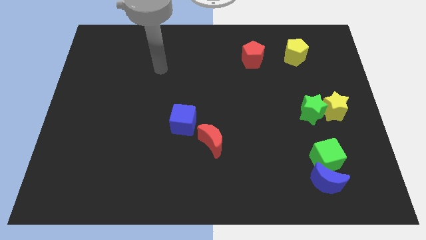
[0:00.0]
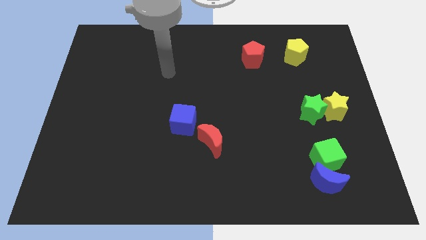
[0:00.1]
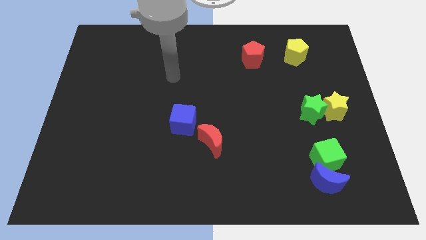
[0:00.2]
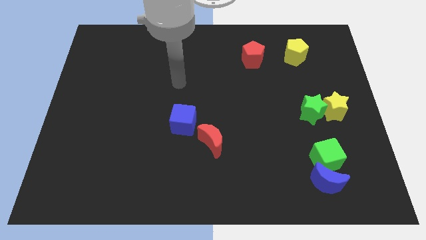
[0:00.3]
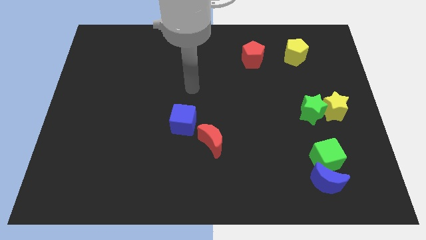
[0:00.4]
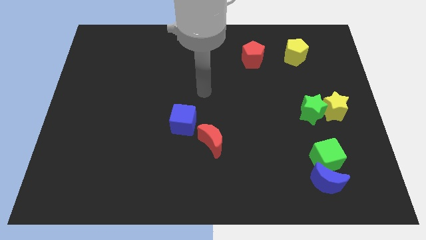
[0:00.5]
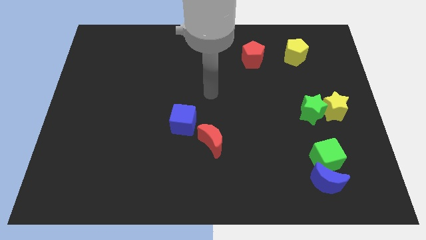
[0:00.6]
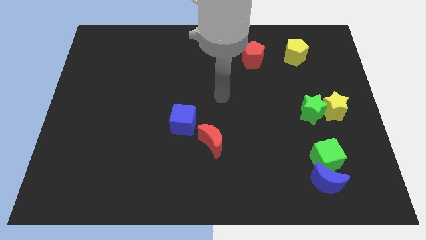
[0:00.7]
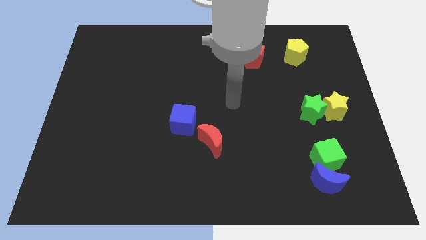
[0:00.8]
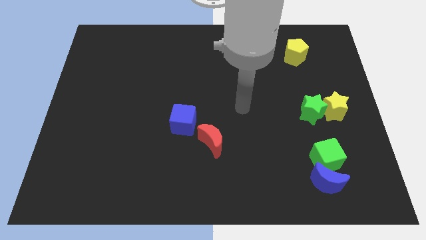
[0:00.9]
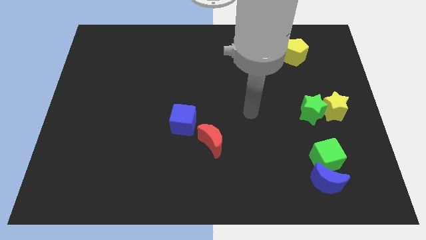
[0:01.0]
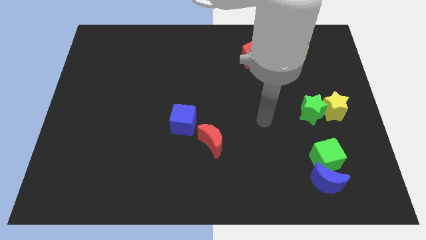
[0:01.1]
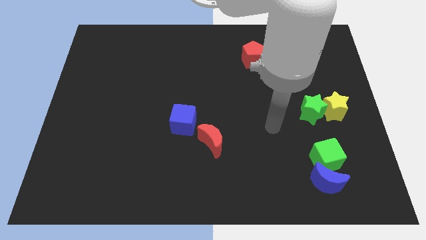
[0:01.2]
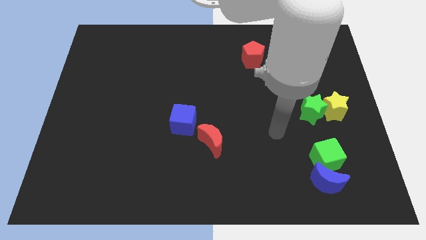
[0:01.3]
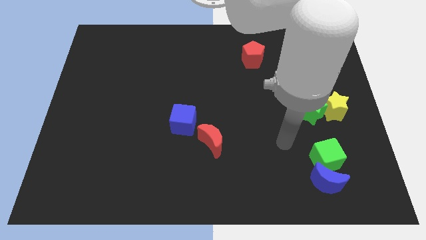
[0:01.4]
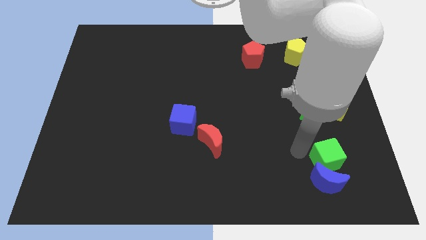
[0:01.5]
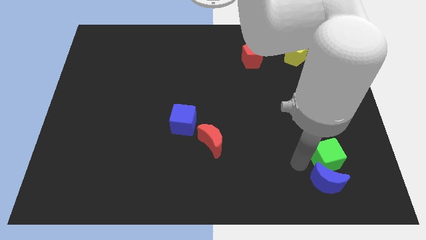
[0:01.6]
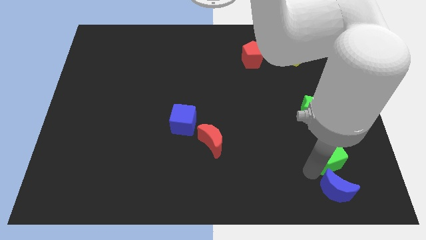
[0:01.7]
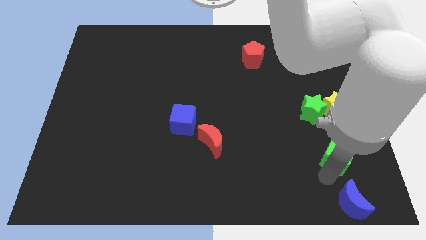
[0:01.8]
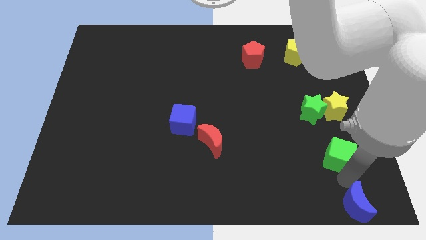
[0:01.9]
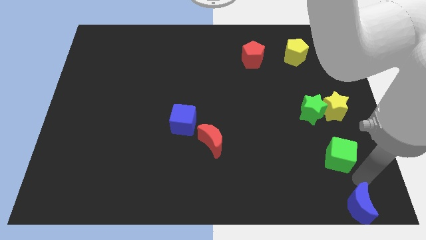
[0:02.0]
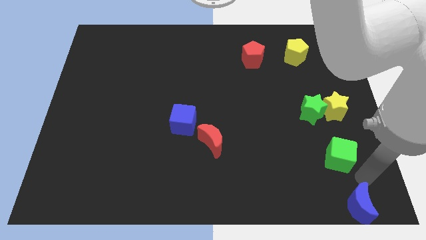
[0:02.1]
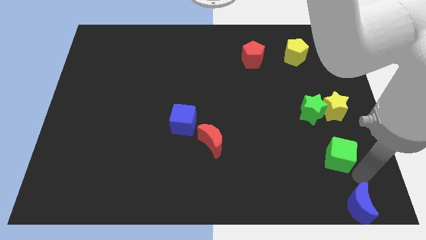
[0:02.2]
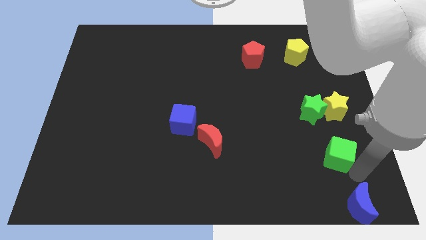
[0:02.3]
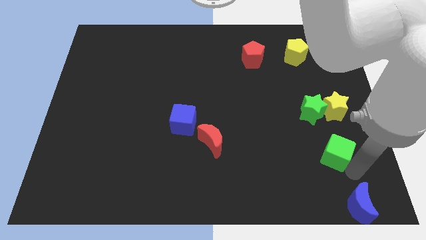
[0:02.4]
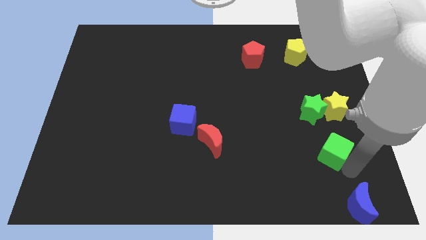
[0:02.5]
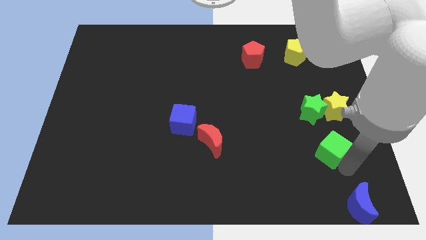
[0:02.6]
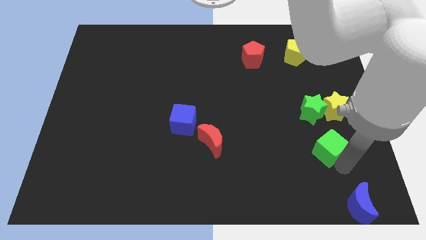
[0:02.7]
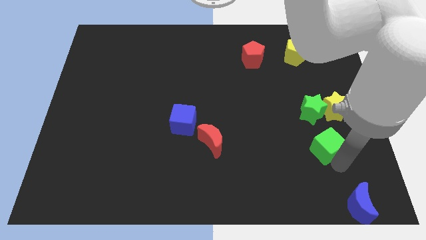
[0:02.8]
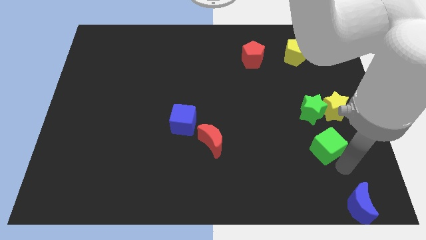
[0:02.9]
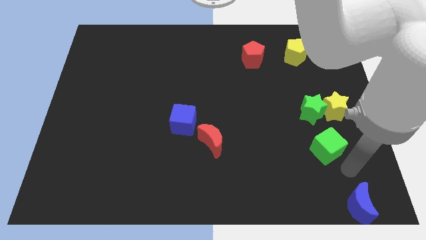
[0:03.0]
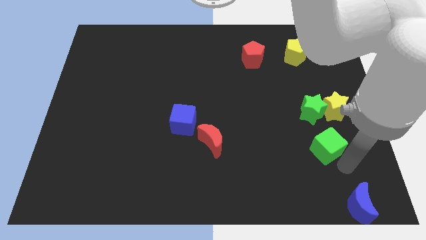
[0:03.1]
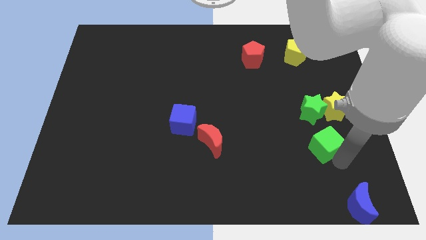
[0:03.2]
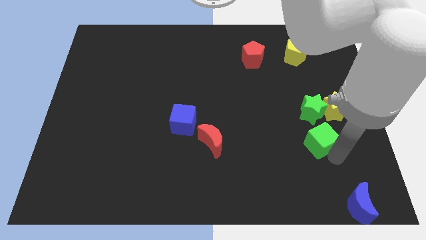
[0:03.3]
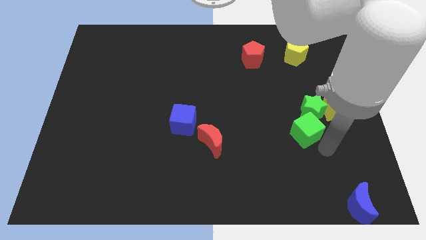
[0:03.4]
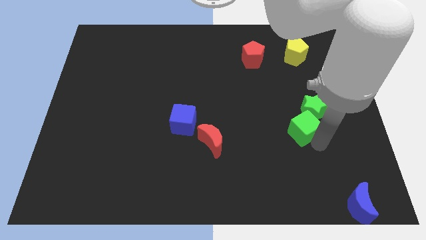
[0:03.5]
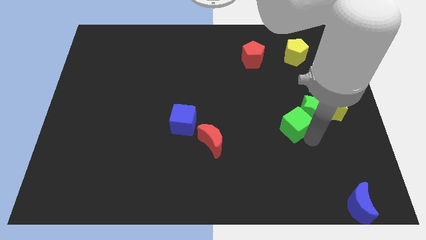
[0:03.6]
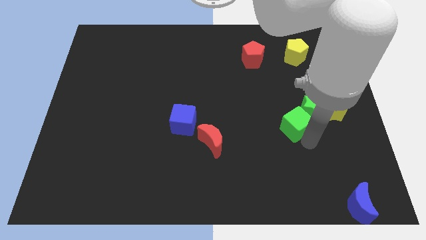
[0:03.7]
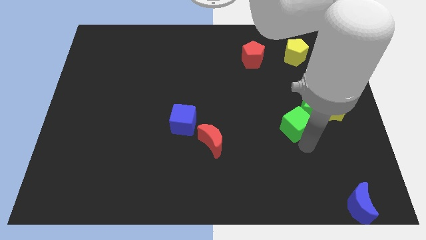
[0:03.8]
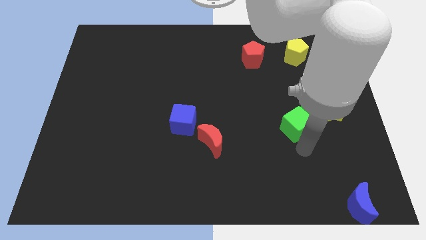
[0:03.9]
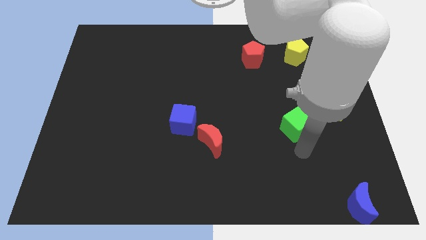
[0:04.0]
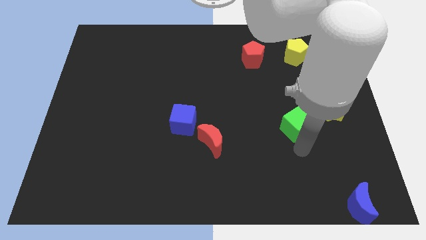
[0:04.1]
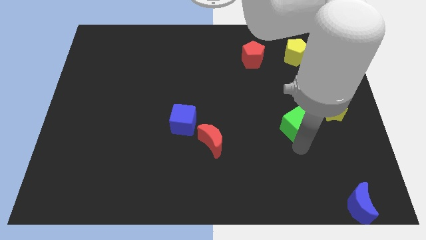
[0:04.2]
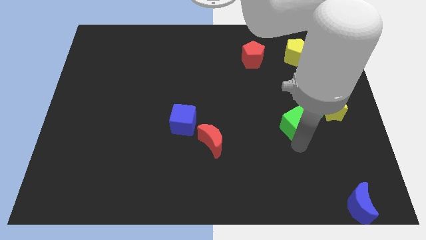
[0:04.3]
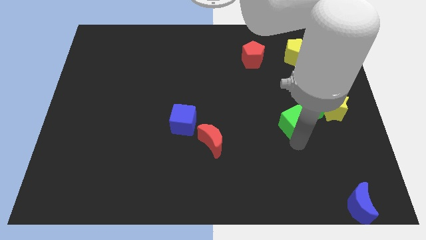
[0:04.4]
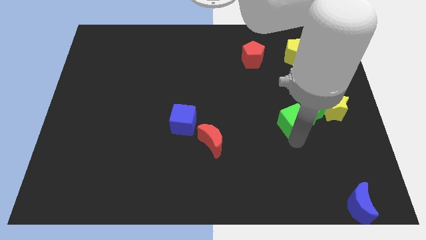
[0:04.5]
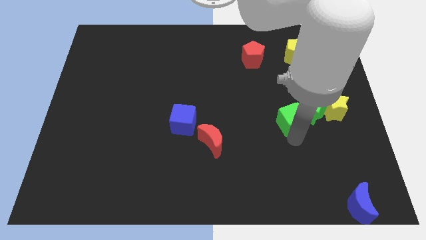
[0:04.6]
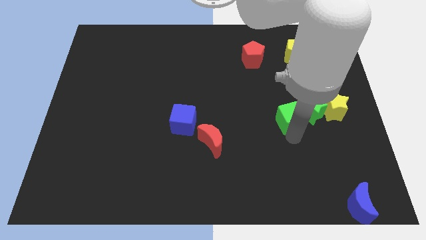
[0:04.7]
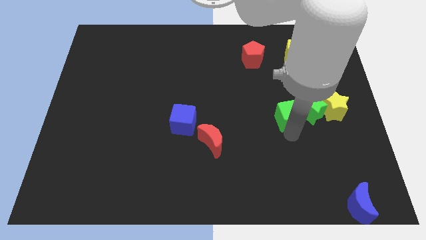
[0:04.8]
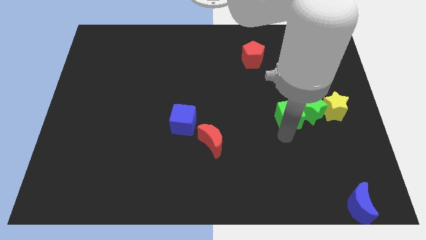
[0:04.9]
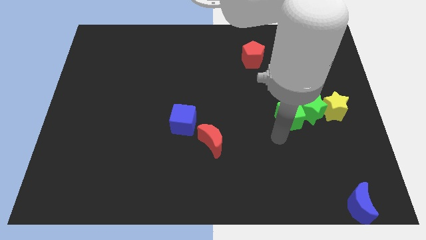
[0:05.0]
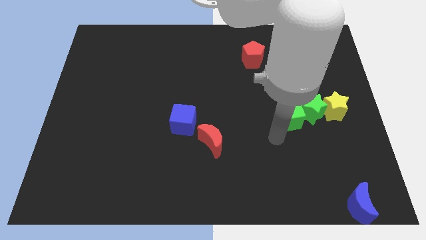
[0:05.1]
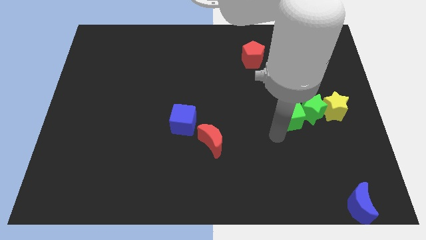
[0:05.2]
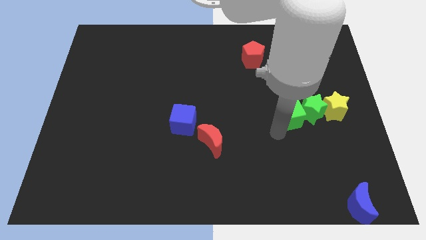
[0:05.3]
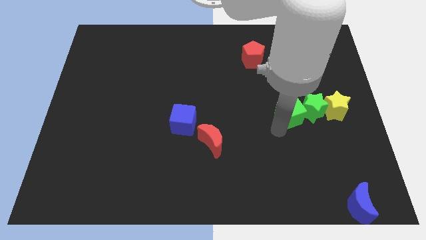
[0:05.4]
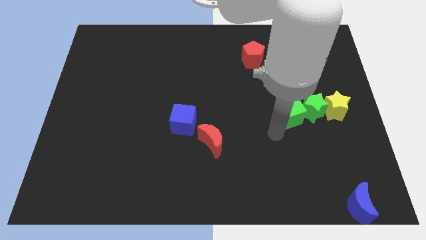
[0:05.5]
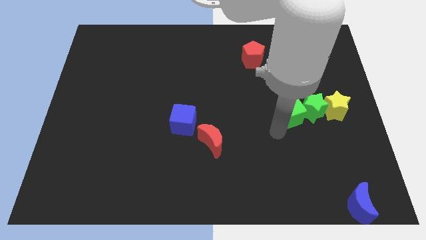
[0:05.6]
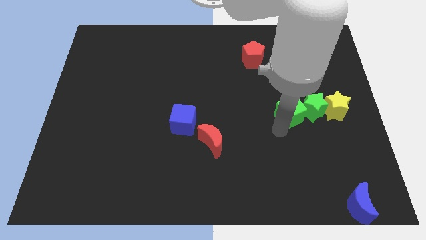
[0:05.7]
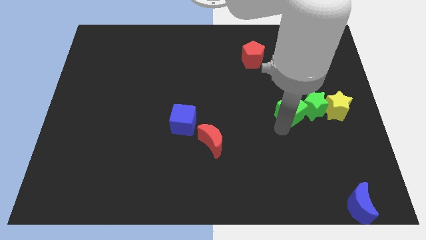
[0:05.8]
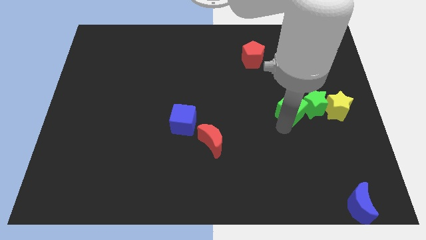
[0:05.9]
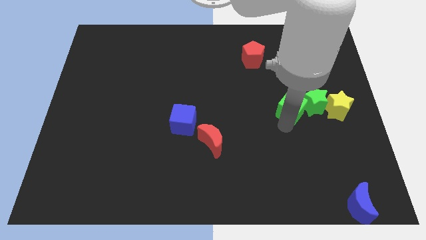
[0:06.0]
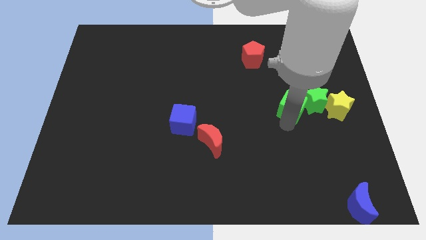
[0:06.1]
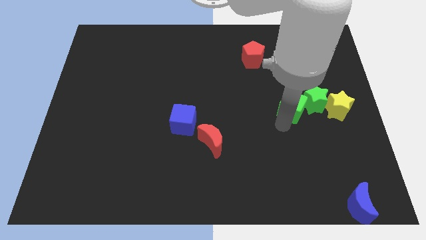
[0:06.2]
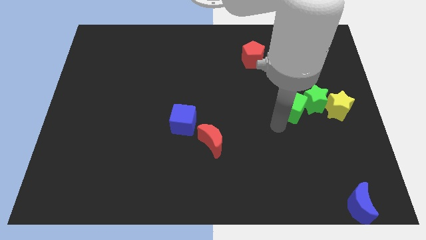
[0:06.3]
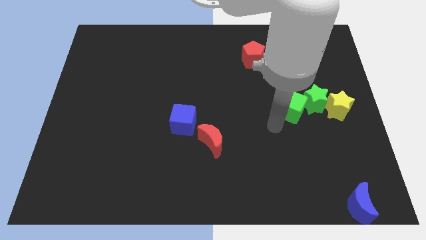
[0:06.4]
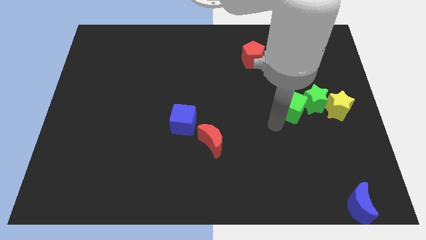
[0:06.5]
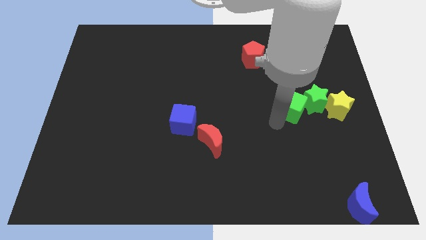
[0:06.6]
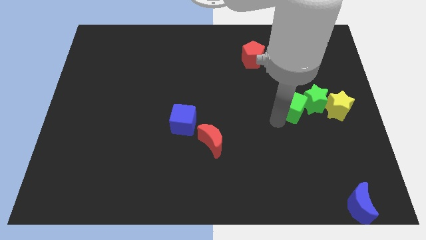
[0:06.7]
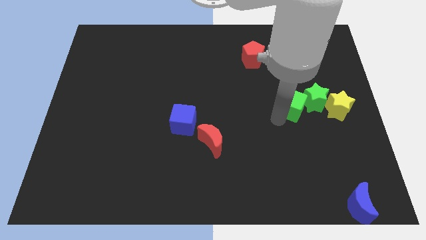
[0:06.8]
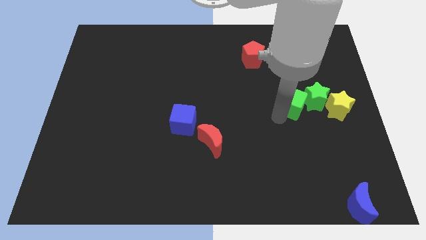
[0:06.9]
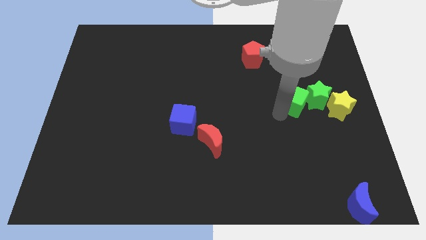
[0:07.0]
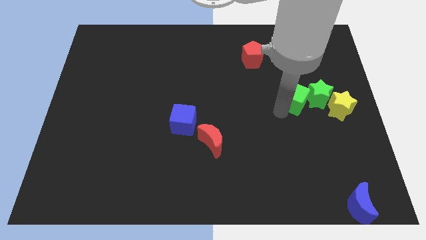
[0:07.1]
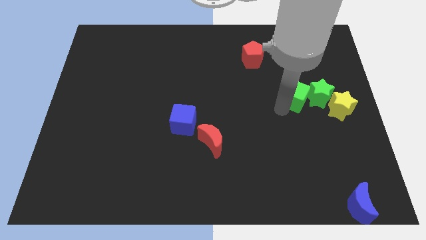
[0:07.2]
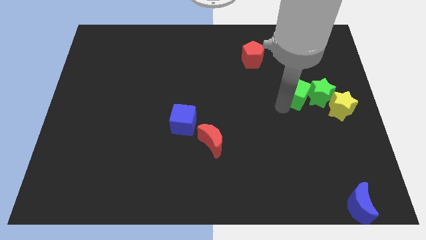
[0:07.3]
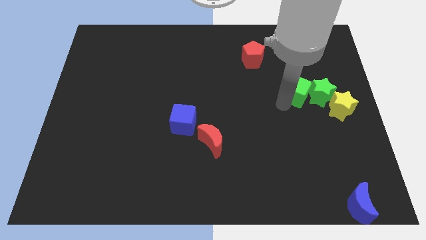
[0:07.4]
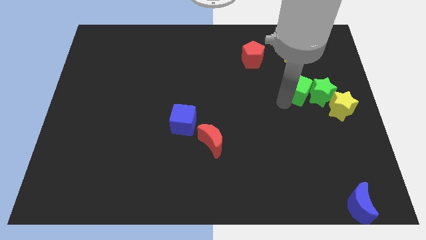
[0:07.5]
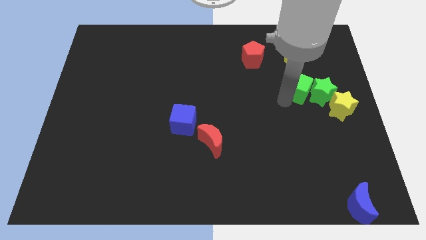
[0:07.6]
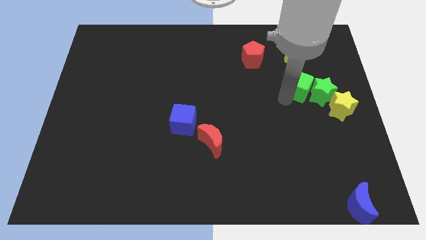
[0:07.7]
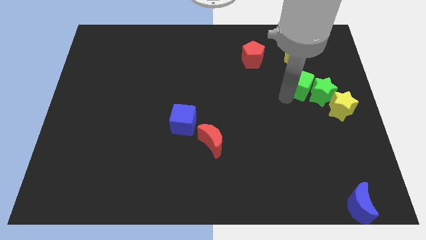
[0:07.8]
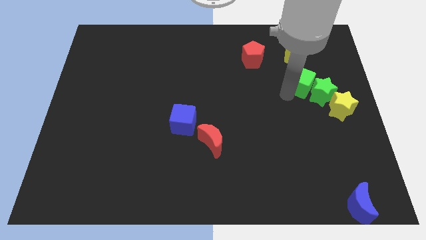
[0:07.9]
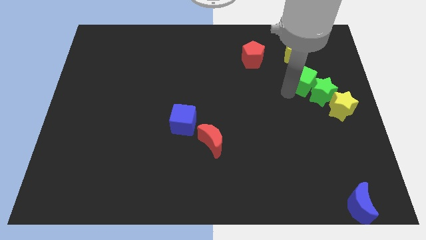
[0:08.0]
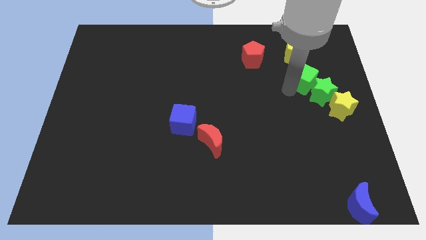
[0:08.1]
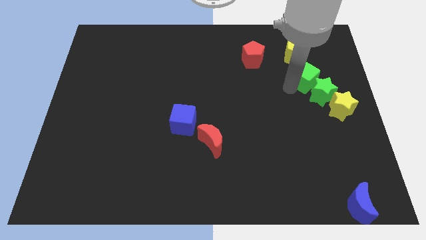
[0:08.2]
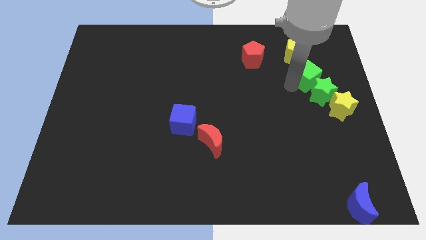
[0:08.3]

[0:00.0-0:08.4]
put the green cube diagonally down and to the right of the yellow pentagon
